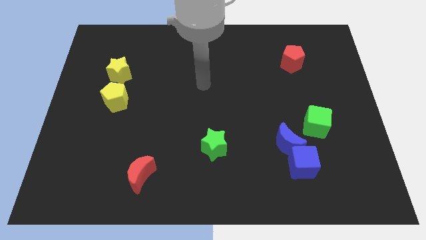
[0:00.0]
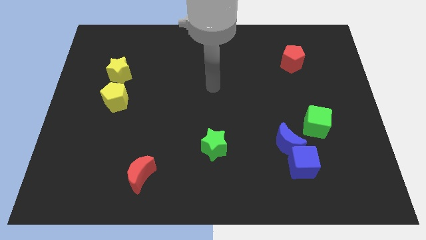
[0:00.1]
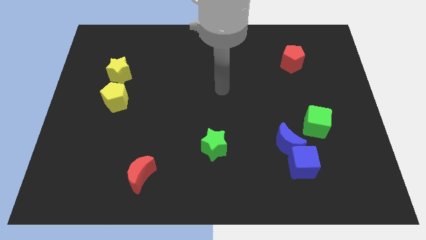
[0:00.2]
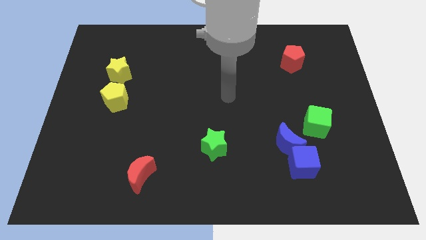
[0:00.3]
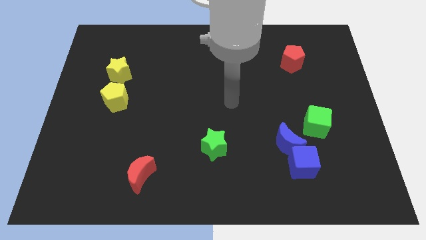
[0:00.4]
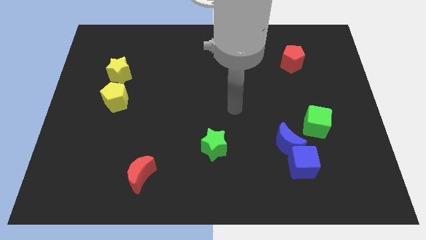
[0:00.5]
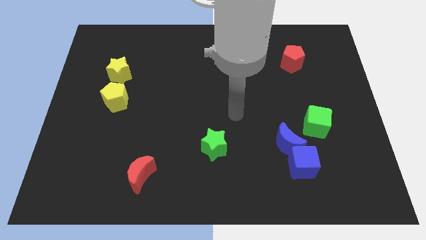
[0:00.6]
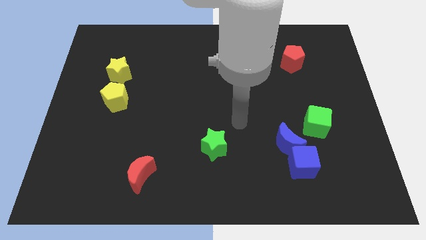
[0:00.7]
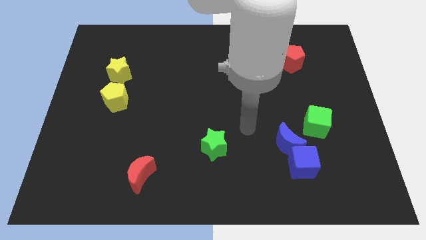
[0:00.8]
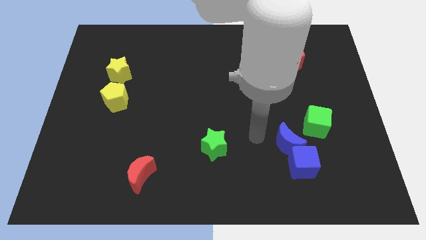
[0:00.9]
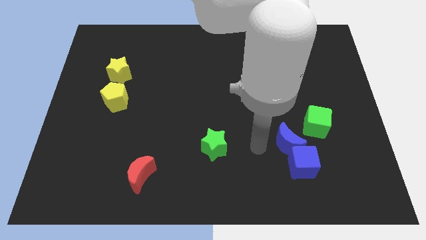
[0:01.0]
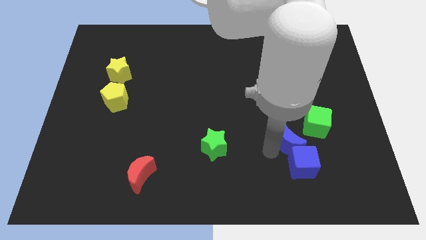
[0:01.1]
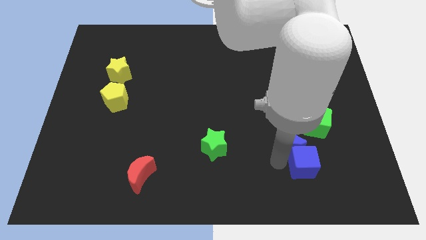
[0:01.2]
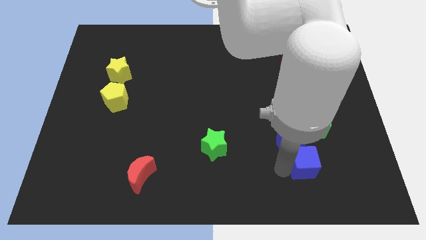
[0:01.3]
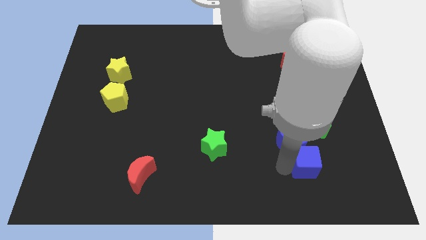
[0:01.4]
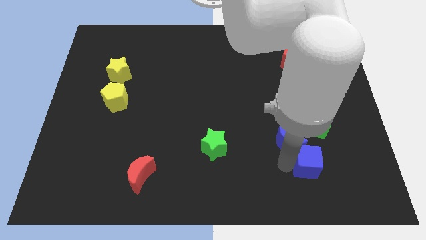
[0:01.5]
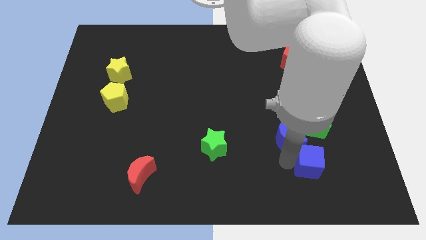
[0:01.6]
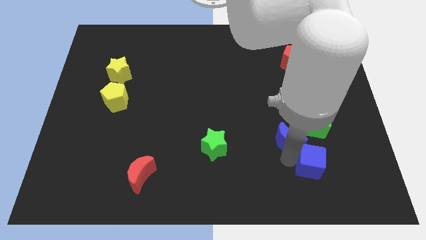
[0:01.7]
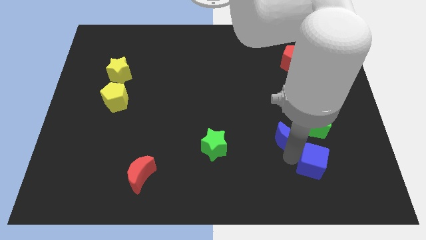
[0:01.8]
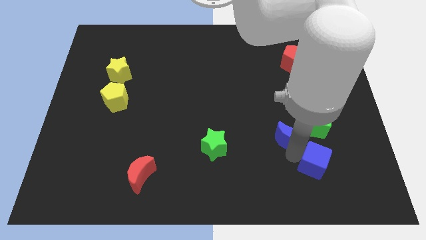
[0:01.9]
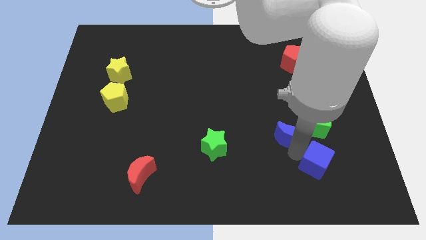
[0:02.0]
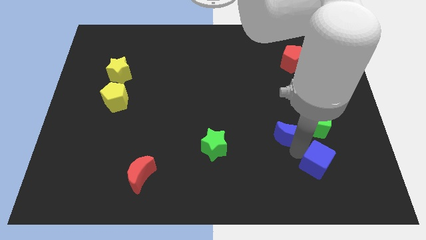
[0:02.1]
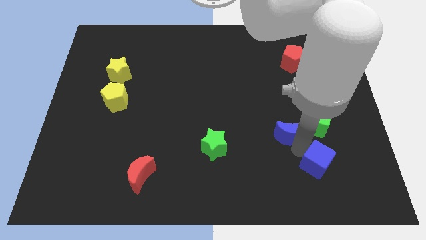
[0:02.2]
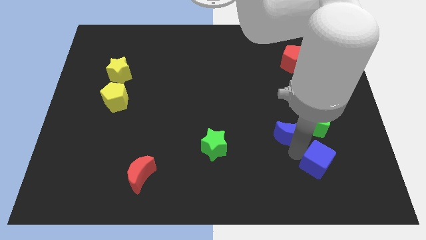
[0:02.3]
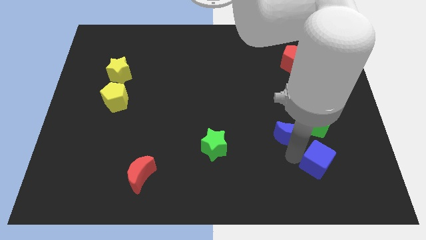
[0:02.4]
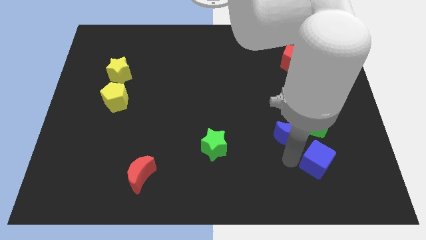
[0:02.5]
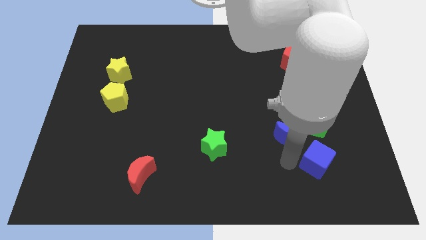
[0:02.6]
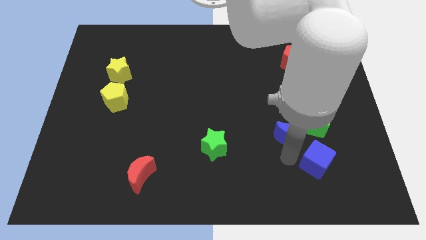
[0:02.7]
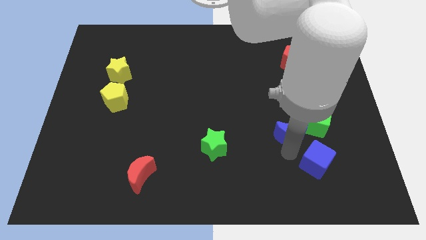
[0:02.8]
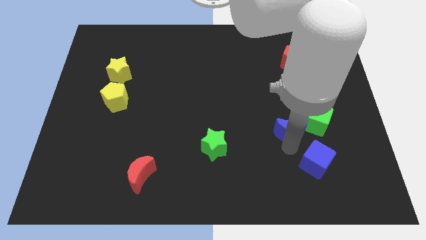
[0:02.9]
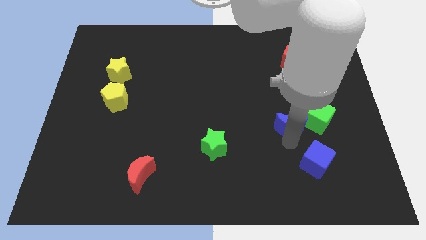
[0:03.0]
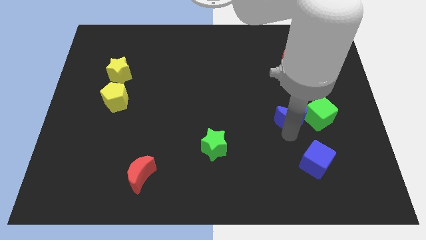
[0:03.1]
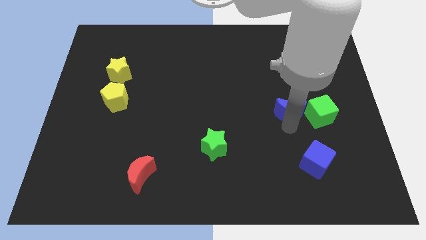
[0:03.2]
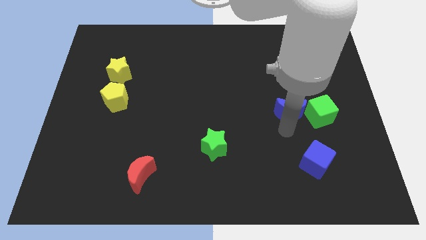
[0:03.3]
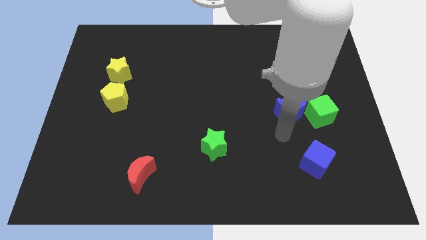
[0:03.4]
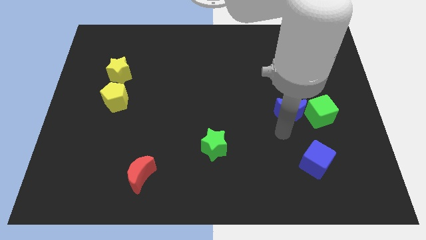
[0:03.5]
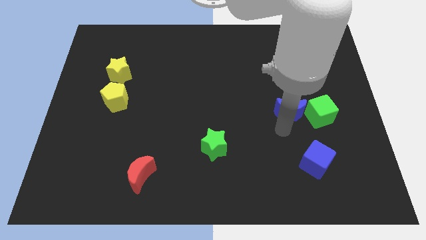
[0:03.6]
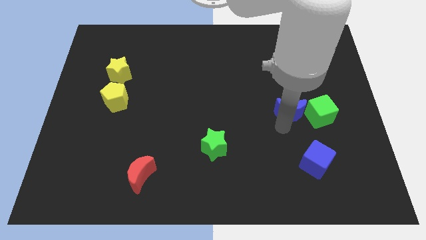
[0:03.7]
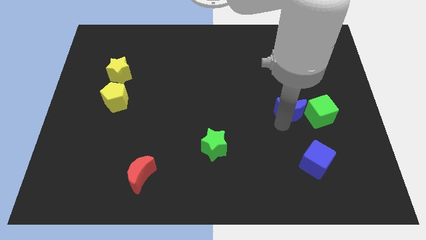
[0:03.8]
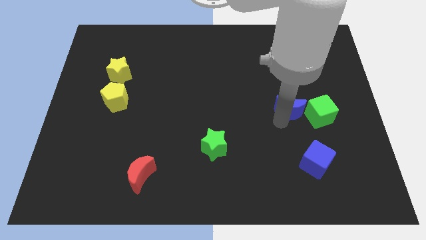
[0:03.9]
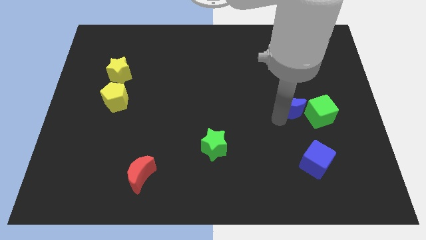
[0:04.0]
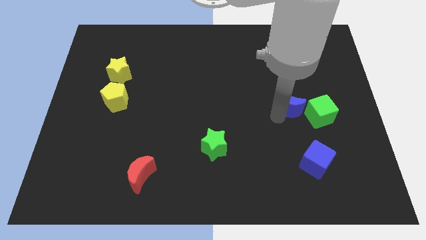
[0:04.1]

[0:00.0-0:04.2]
put the blue moon below the red pentagon

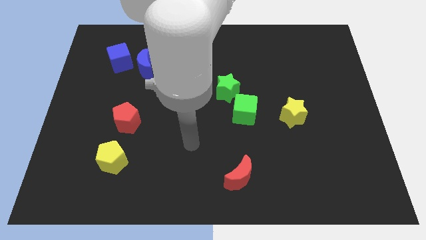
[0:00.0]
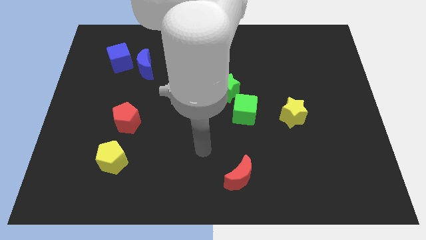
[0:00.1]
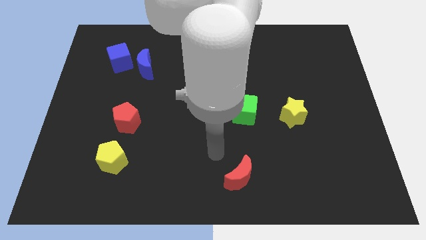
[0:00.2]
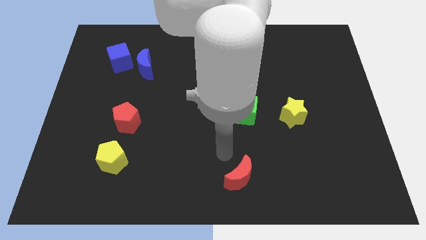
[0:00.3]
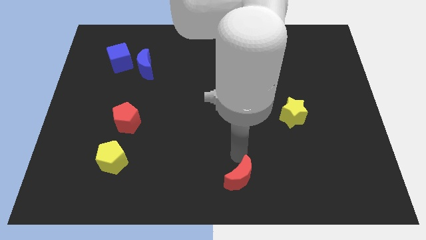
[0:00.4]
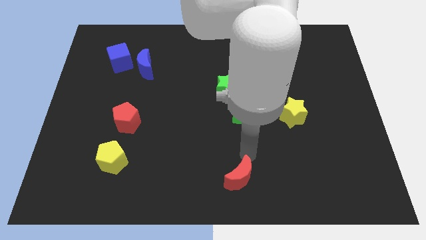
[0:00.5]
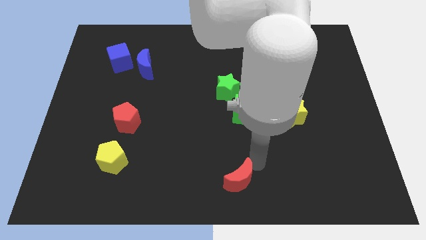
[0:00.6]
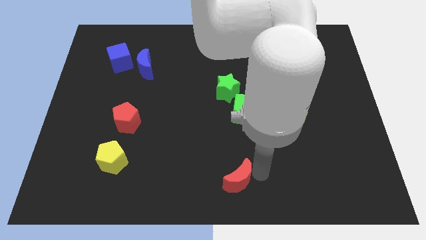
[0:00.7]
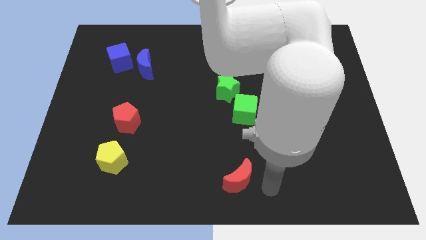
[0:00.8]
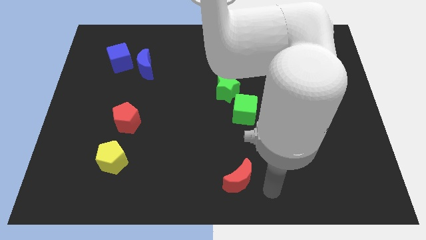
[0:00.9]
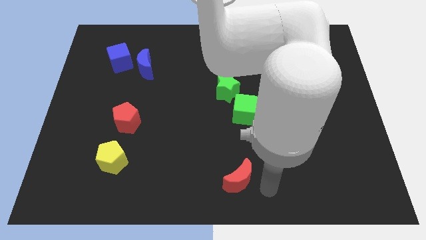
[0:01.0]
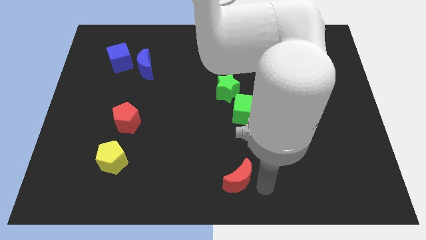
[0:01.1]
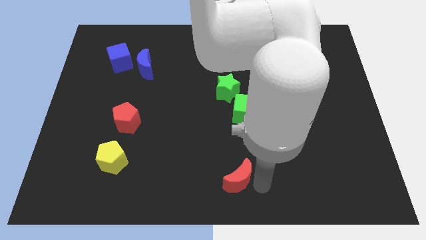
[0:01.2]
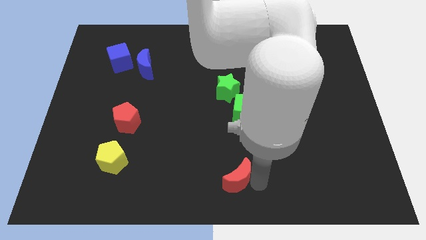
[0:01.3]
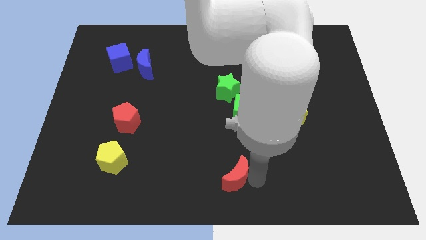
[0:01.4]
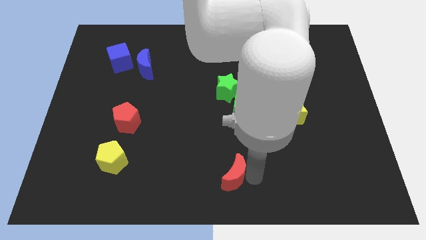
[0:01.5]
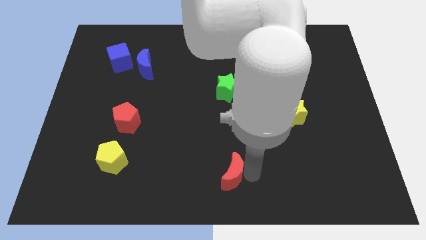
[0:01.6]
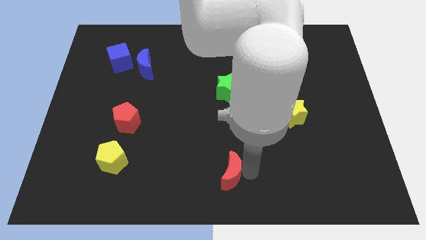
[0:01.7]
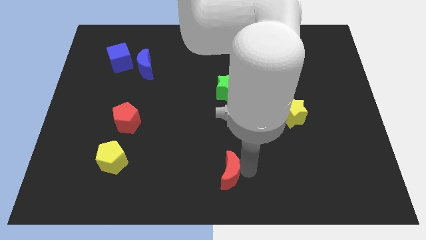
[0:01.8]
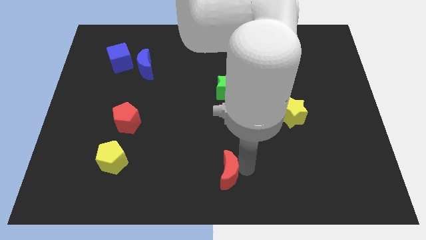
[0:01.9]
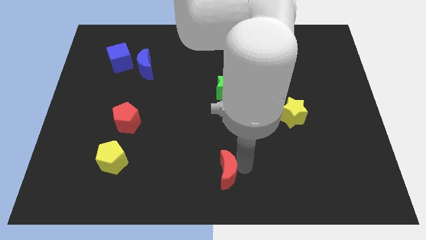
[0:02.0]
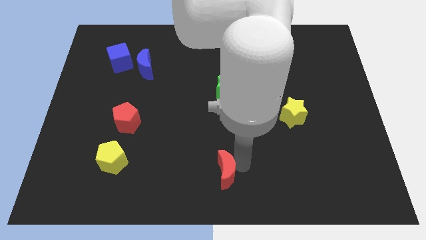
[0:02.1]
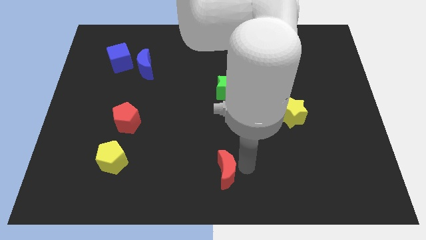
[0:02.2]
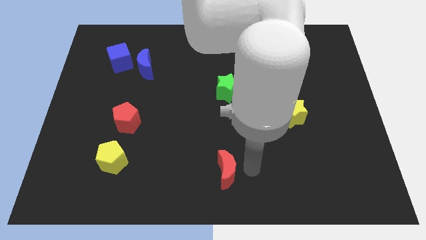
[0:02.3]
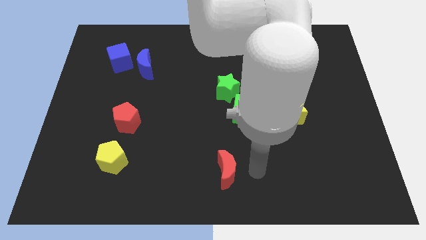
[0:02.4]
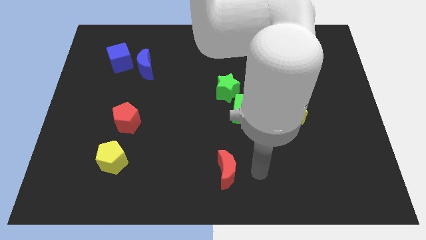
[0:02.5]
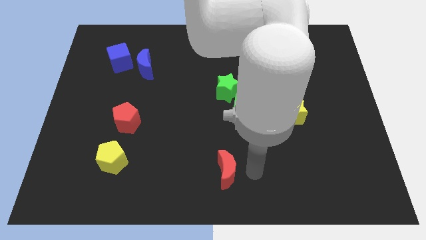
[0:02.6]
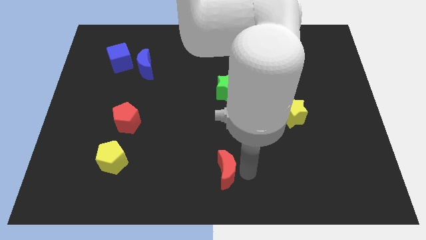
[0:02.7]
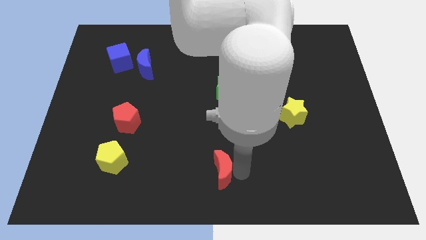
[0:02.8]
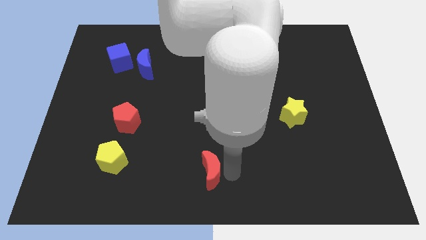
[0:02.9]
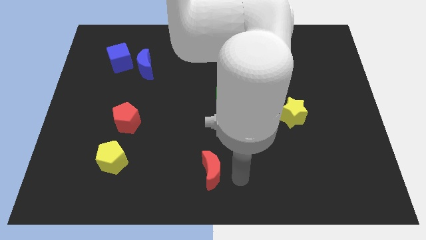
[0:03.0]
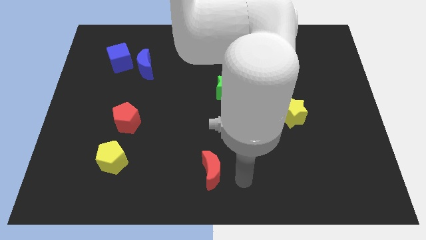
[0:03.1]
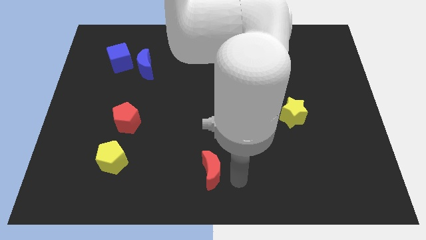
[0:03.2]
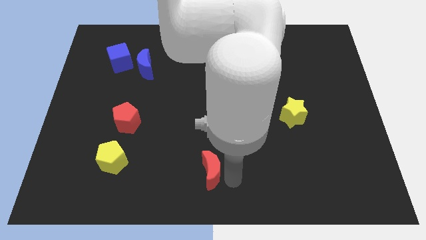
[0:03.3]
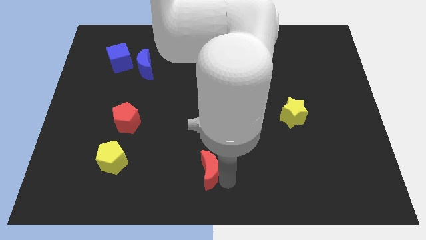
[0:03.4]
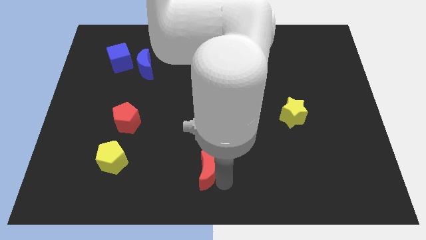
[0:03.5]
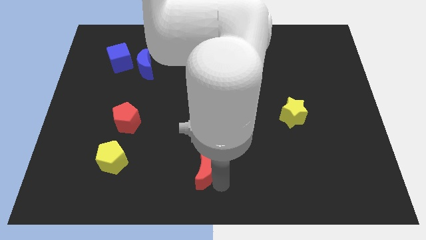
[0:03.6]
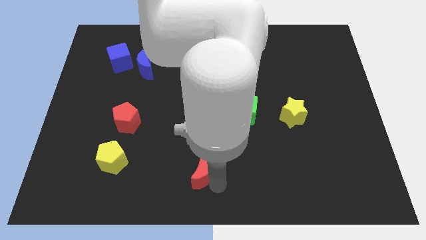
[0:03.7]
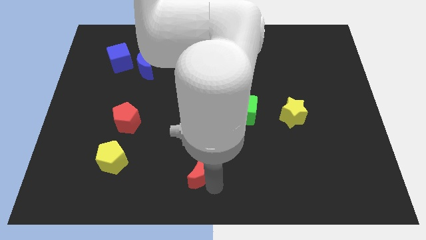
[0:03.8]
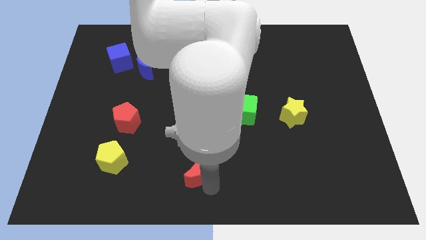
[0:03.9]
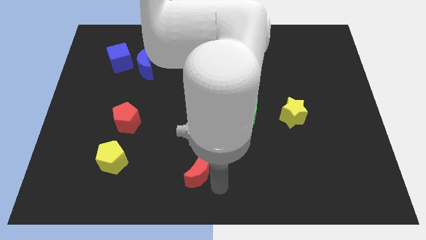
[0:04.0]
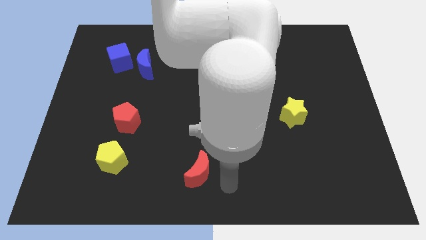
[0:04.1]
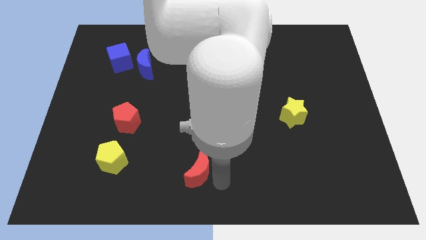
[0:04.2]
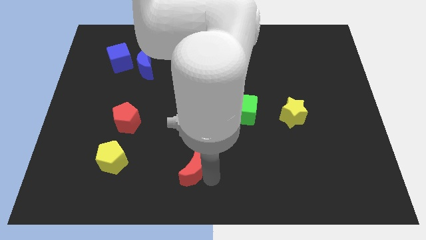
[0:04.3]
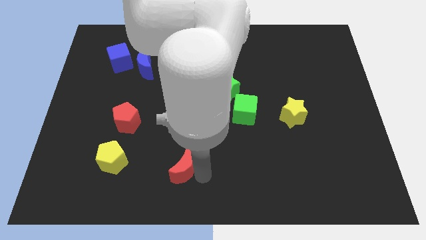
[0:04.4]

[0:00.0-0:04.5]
slide the red moon right of the yellow pentagon
